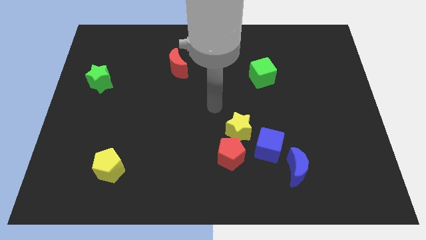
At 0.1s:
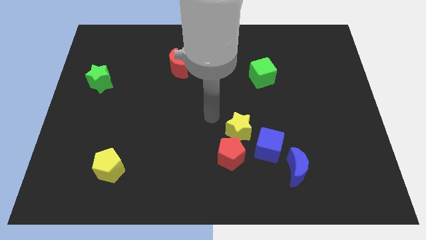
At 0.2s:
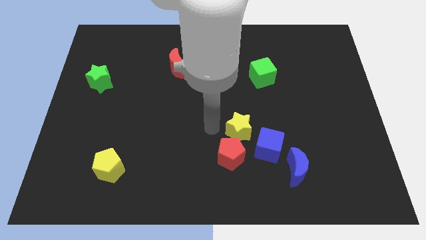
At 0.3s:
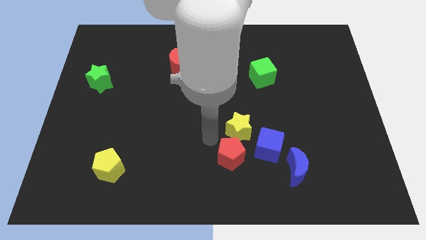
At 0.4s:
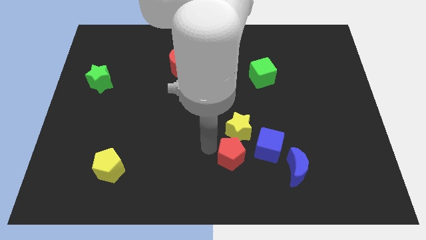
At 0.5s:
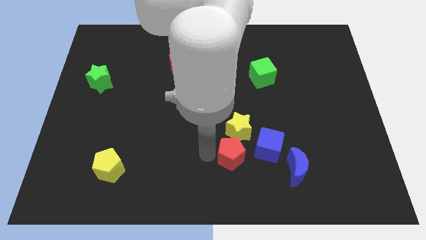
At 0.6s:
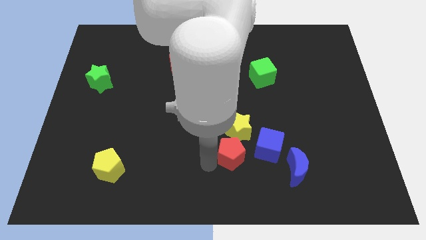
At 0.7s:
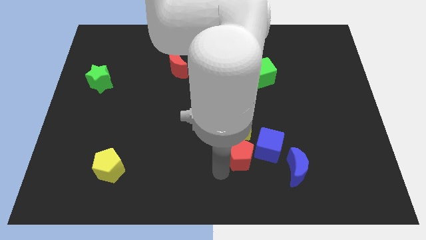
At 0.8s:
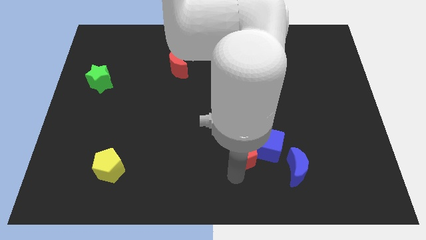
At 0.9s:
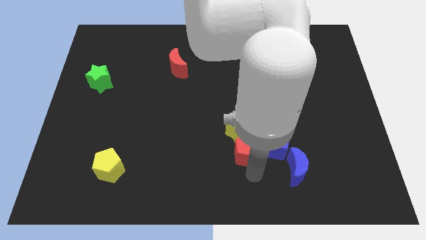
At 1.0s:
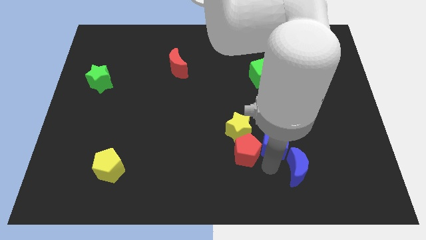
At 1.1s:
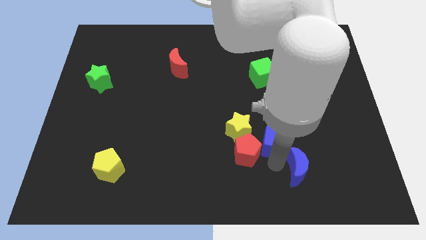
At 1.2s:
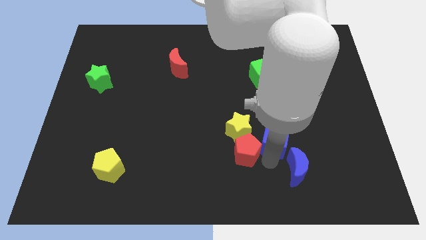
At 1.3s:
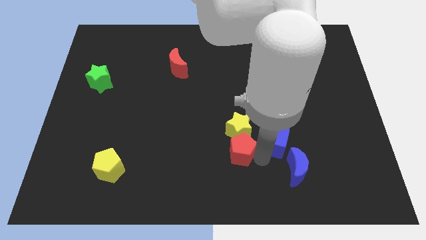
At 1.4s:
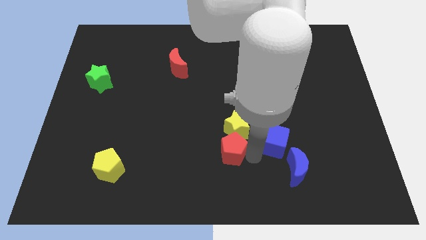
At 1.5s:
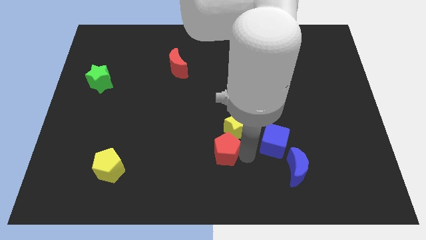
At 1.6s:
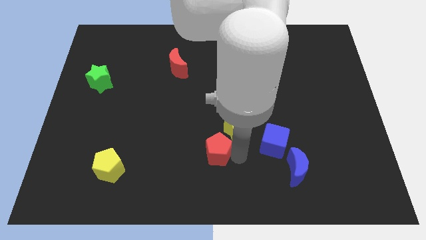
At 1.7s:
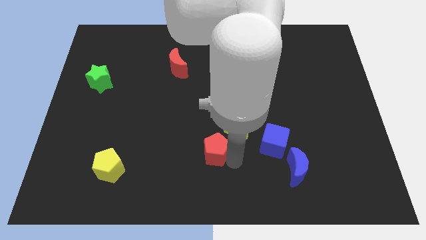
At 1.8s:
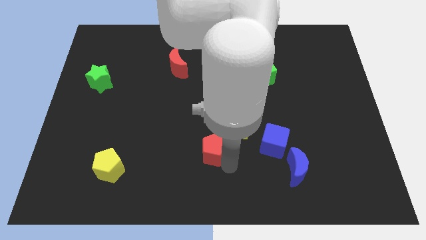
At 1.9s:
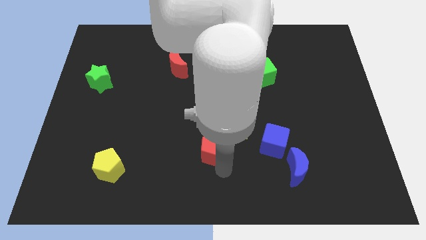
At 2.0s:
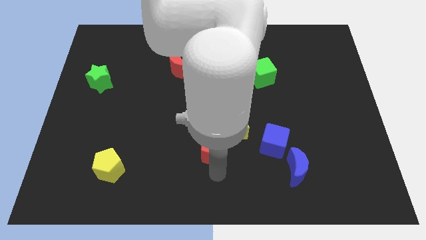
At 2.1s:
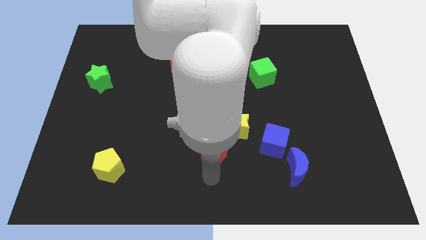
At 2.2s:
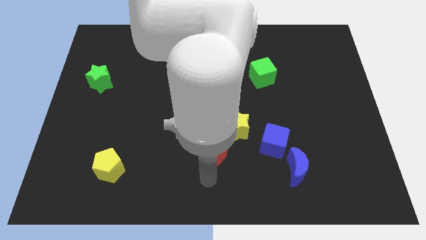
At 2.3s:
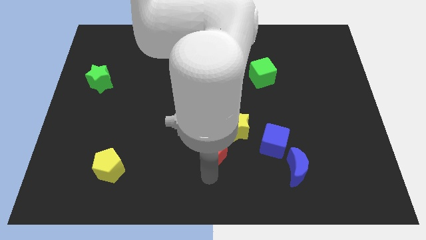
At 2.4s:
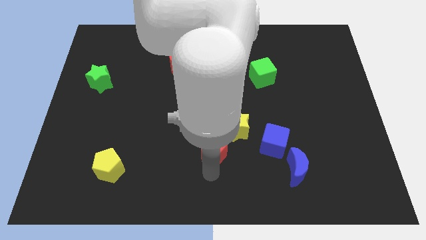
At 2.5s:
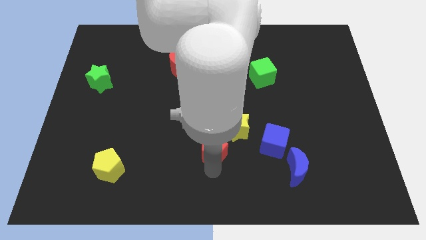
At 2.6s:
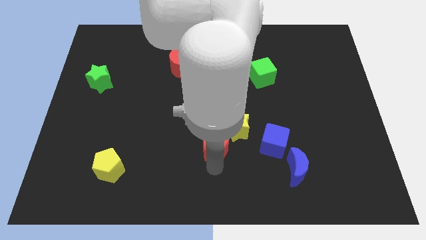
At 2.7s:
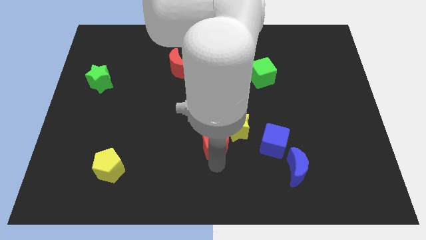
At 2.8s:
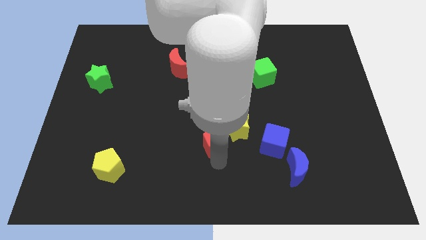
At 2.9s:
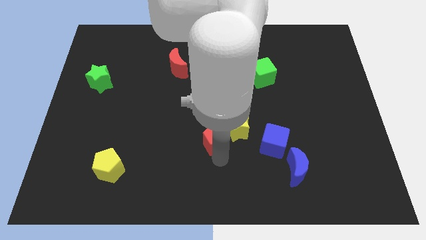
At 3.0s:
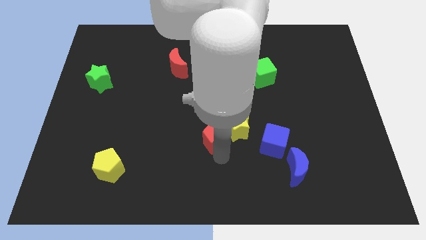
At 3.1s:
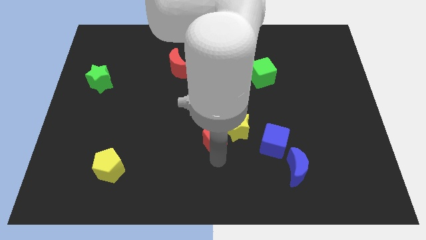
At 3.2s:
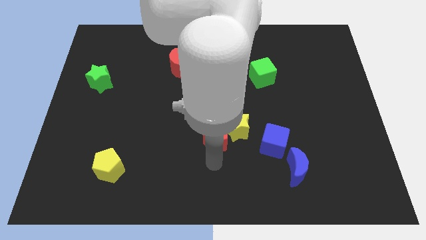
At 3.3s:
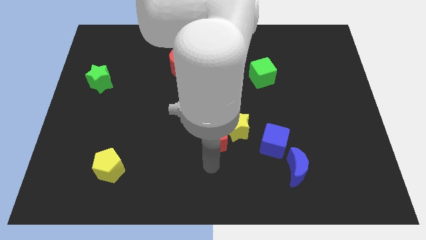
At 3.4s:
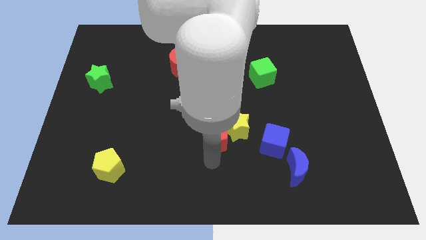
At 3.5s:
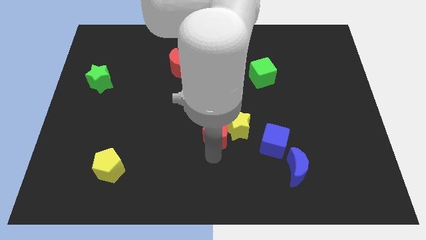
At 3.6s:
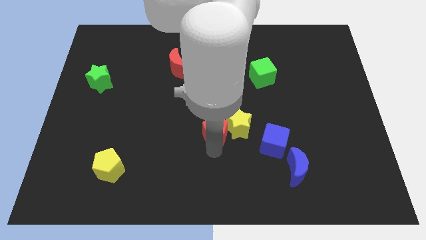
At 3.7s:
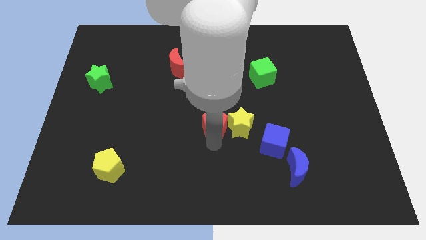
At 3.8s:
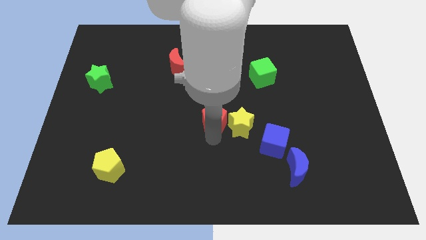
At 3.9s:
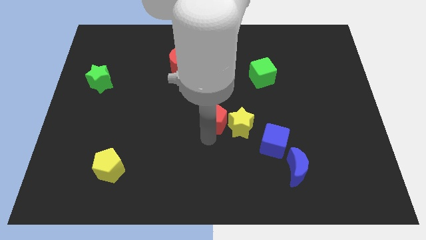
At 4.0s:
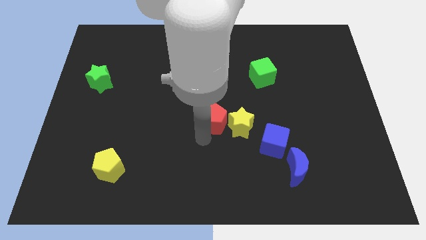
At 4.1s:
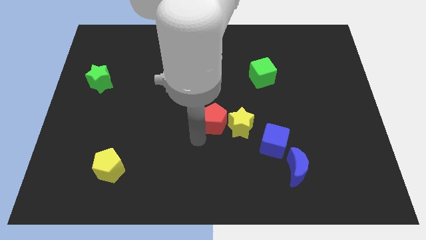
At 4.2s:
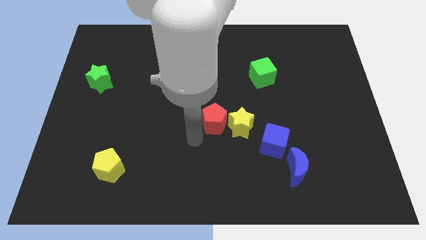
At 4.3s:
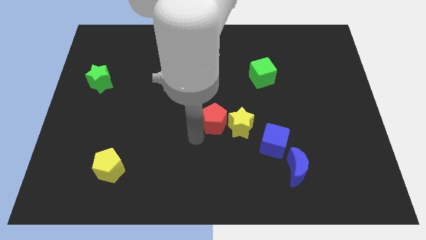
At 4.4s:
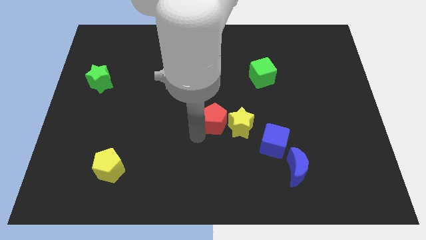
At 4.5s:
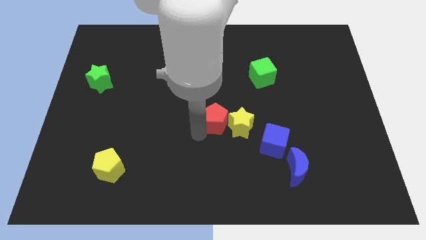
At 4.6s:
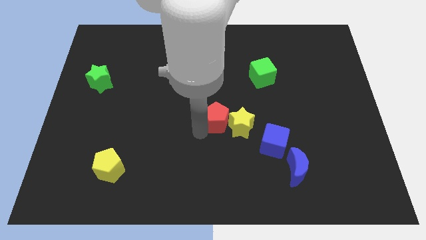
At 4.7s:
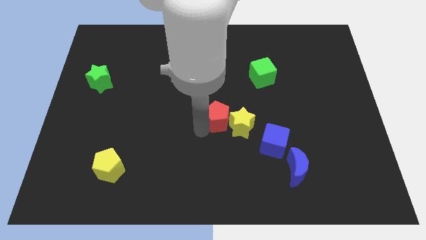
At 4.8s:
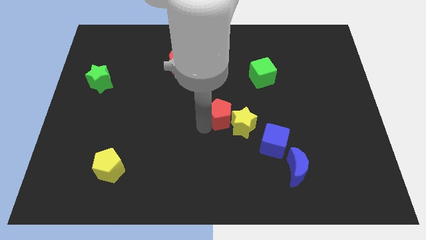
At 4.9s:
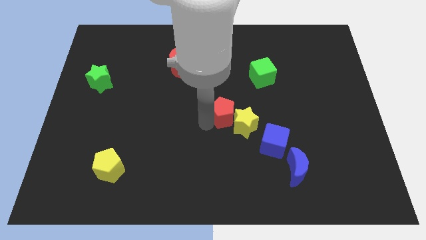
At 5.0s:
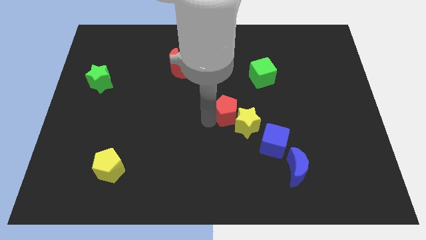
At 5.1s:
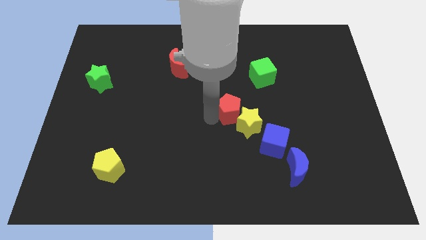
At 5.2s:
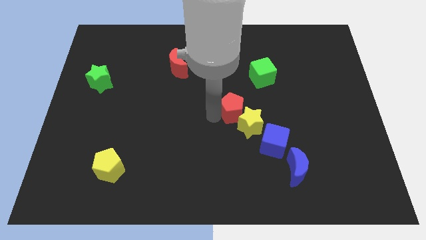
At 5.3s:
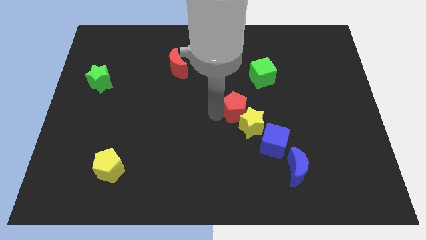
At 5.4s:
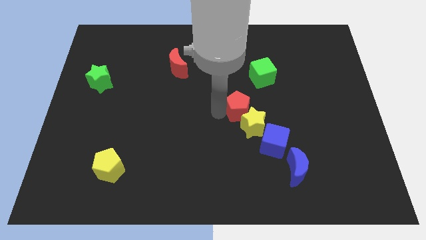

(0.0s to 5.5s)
put the red pentagon to the bottom left side of the green cube

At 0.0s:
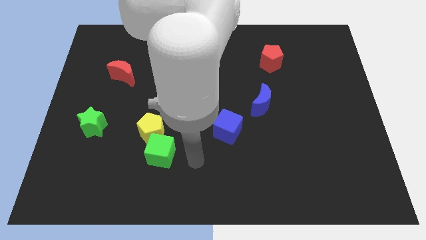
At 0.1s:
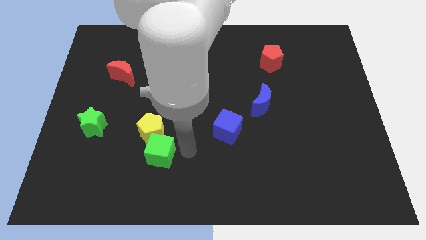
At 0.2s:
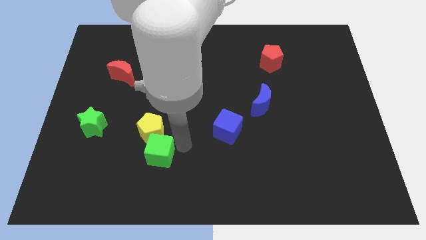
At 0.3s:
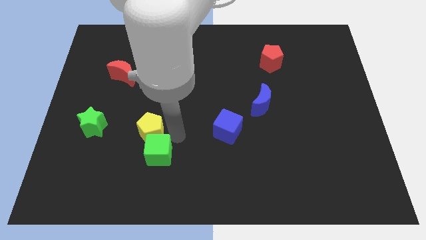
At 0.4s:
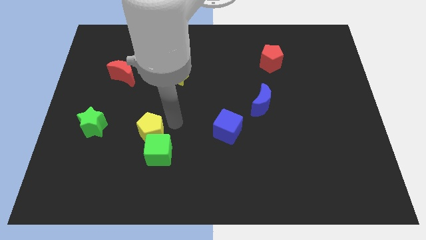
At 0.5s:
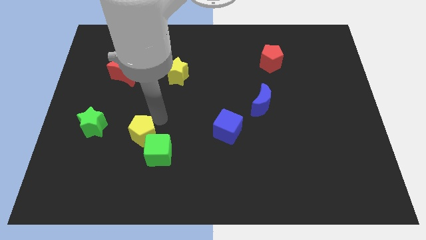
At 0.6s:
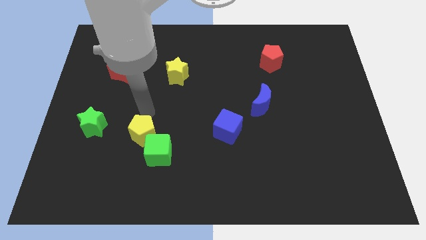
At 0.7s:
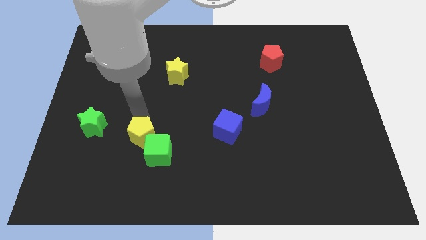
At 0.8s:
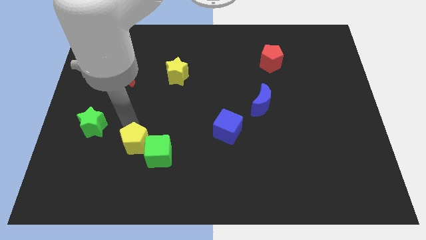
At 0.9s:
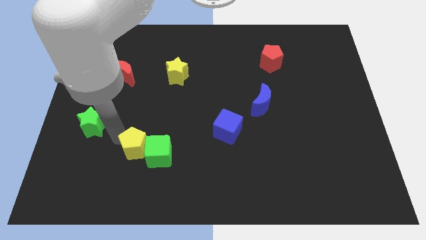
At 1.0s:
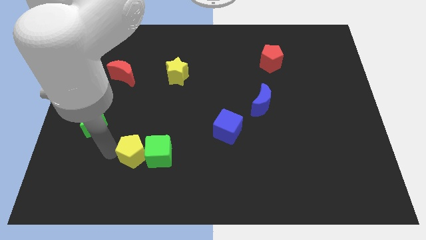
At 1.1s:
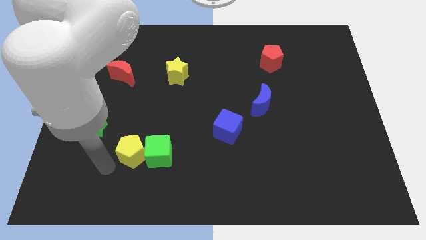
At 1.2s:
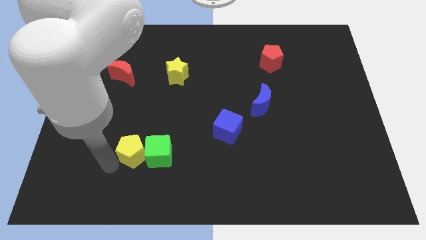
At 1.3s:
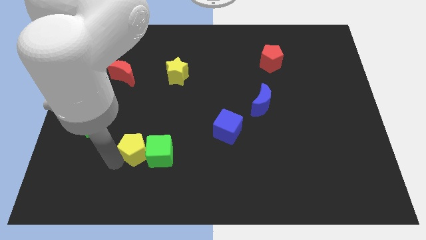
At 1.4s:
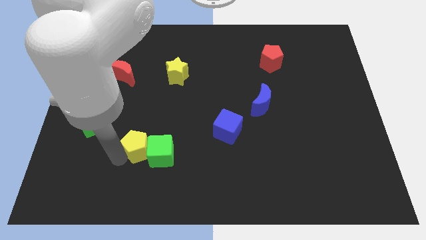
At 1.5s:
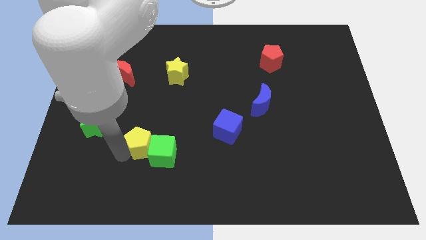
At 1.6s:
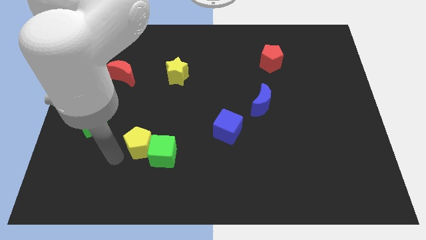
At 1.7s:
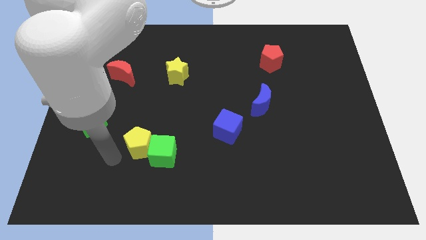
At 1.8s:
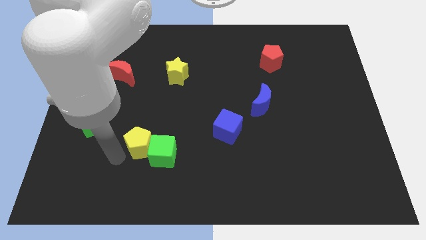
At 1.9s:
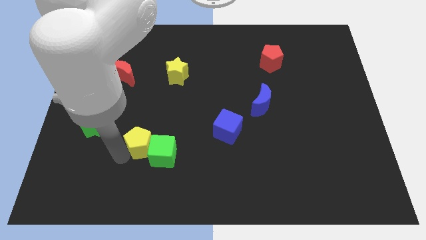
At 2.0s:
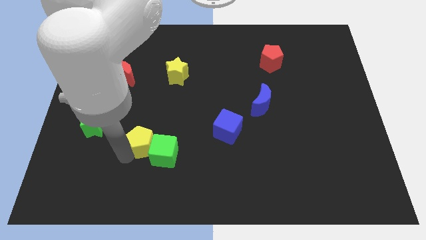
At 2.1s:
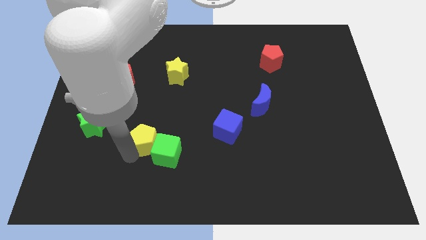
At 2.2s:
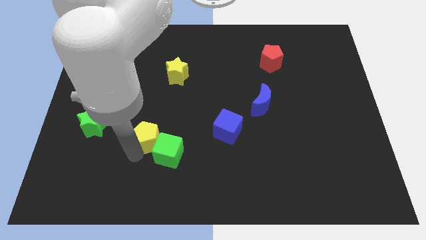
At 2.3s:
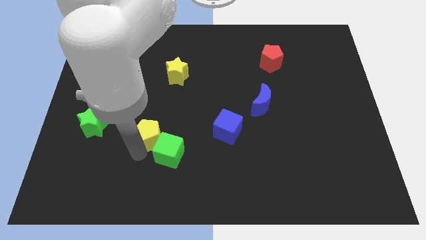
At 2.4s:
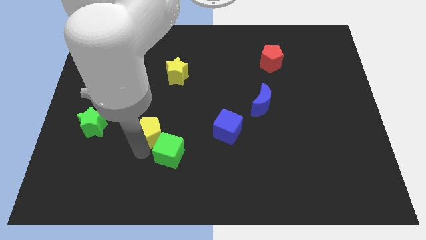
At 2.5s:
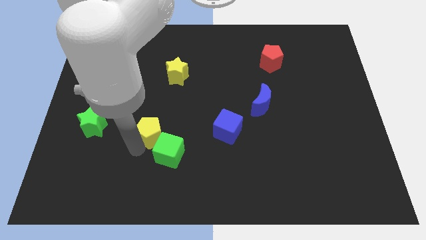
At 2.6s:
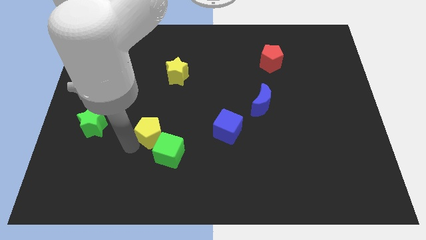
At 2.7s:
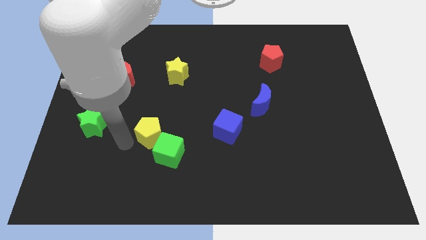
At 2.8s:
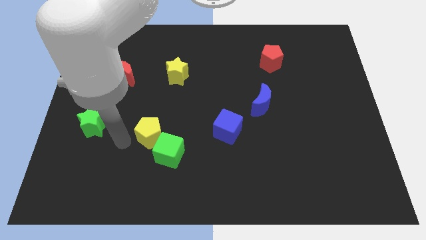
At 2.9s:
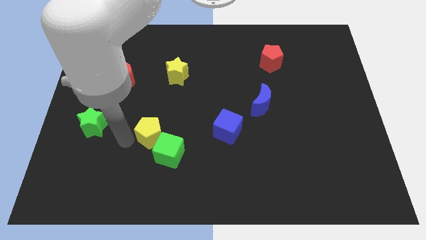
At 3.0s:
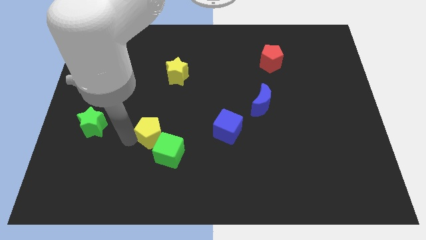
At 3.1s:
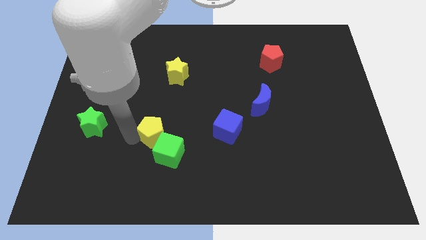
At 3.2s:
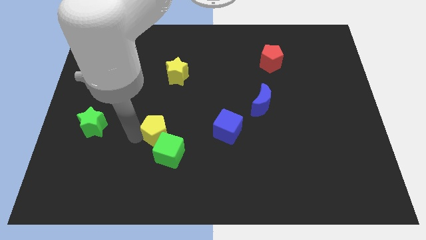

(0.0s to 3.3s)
move the yellow pentagon to the left of the blue cube
